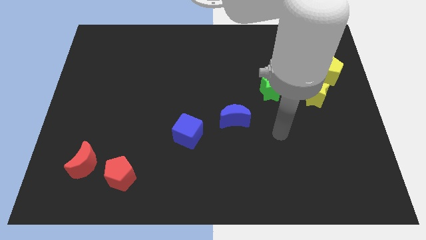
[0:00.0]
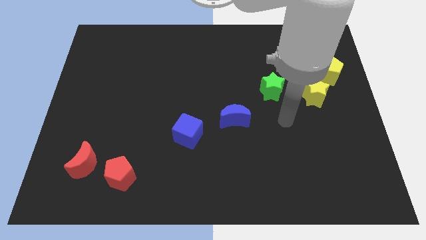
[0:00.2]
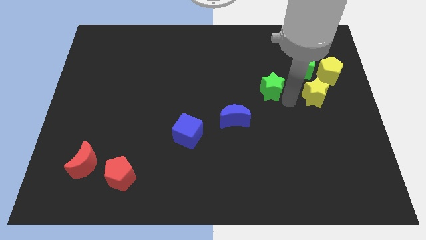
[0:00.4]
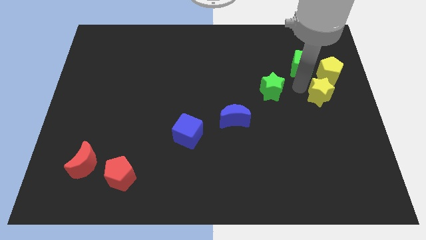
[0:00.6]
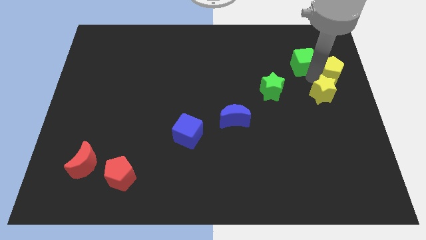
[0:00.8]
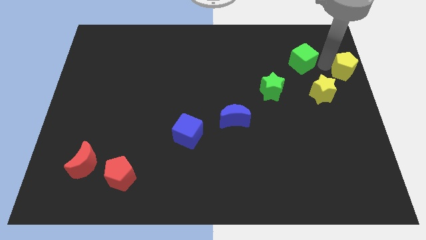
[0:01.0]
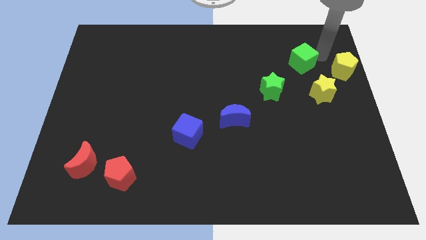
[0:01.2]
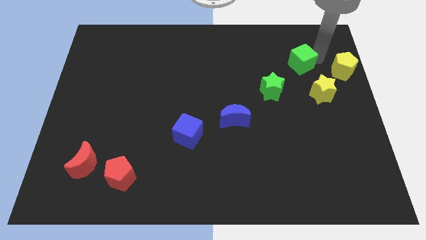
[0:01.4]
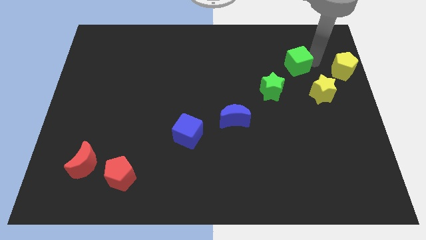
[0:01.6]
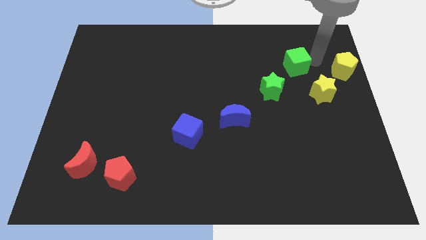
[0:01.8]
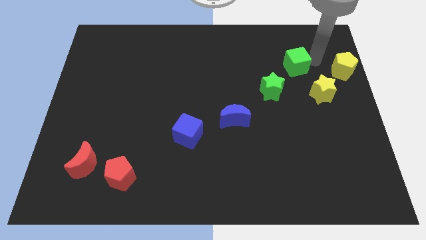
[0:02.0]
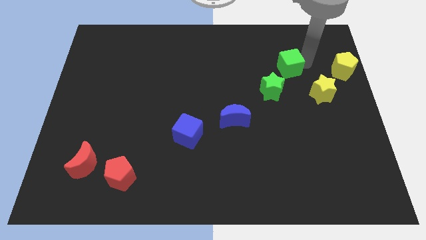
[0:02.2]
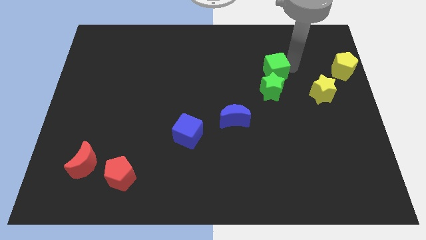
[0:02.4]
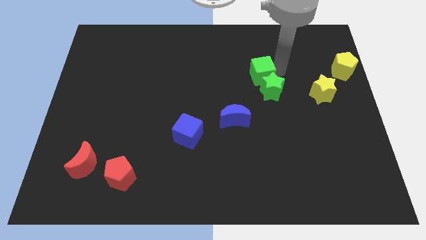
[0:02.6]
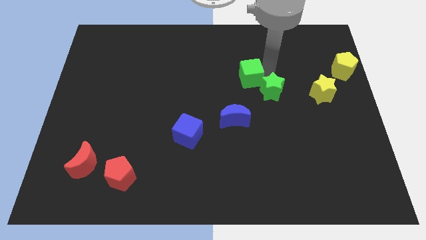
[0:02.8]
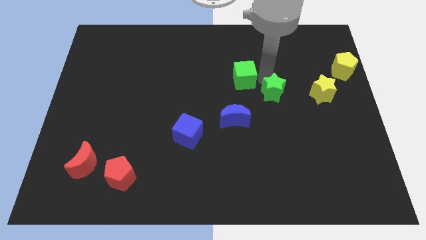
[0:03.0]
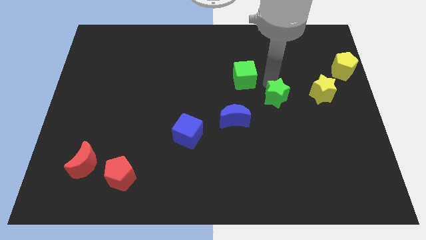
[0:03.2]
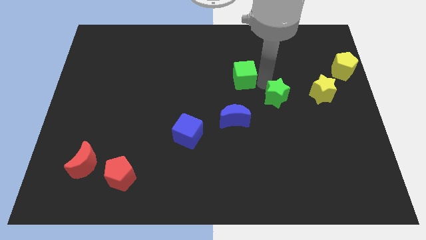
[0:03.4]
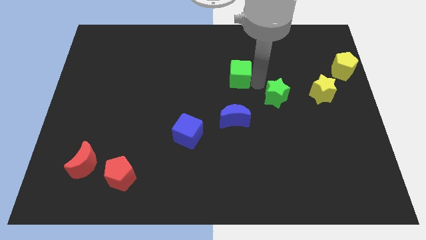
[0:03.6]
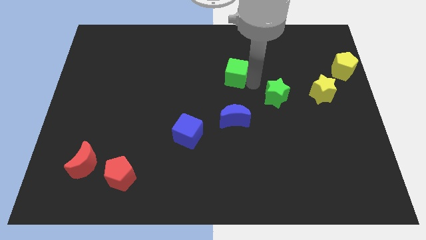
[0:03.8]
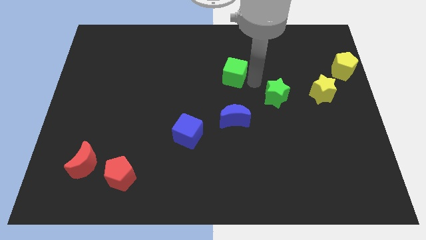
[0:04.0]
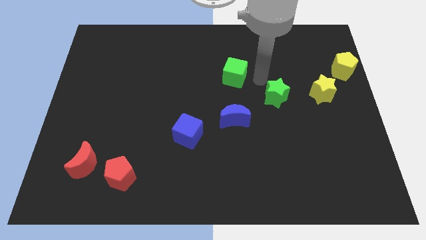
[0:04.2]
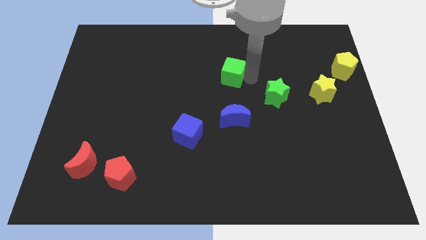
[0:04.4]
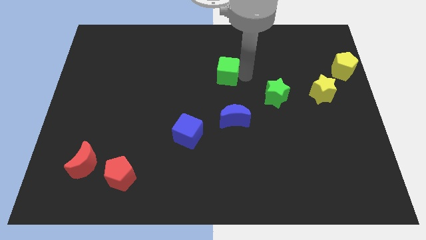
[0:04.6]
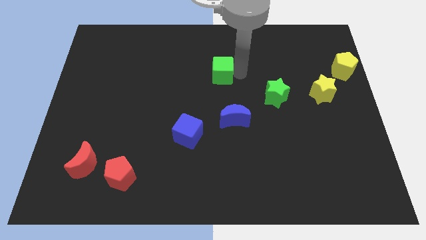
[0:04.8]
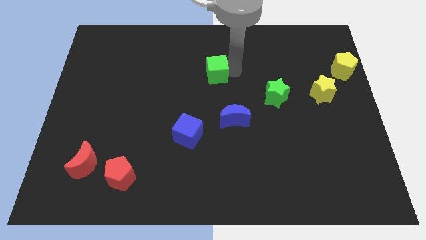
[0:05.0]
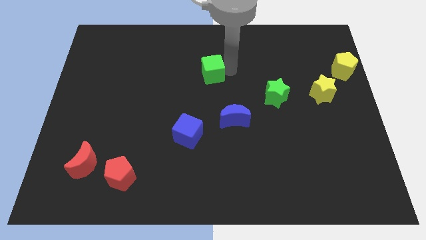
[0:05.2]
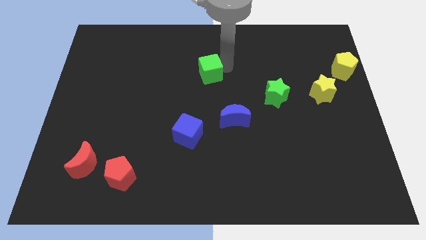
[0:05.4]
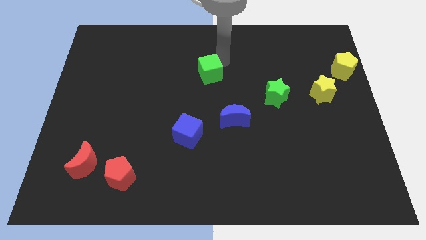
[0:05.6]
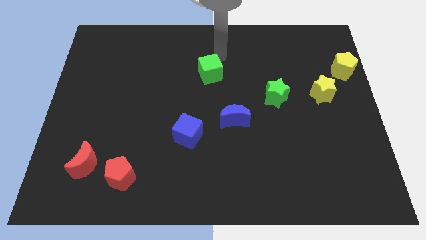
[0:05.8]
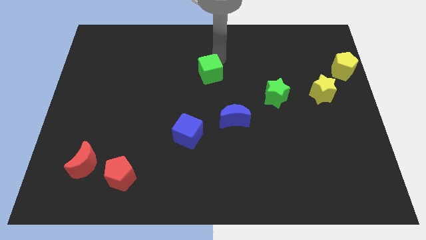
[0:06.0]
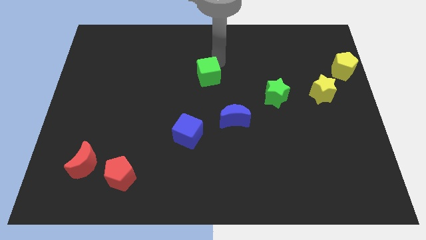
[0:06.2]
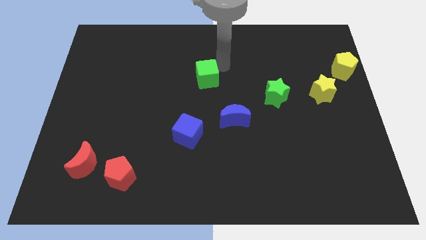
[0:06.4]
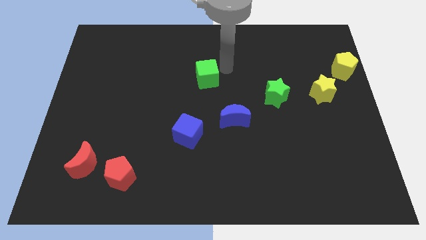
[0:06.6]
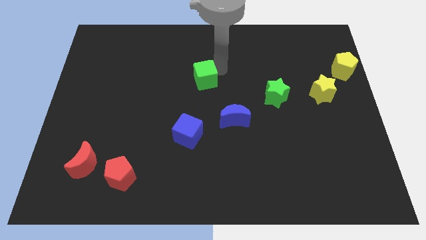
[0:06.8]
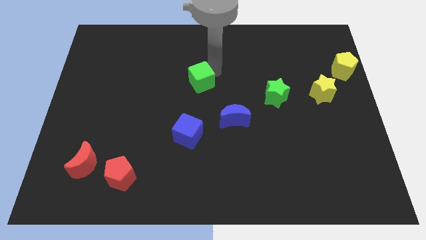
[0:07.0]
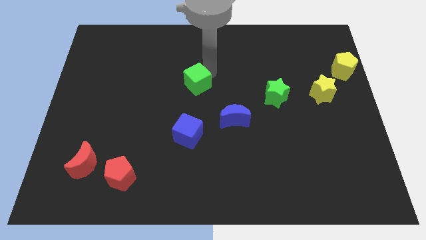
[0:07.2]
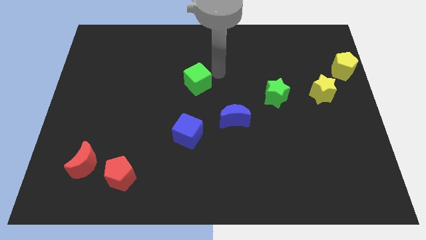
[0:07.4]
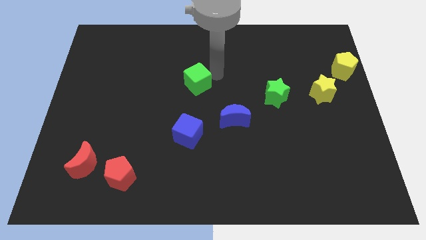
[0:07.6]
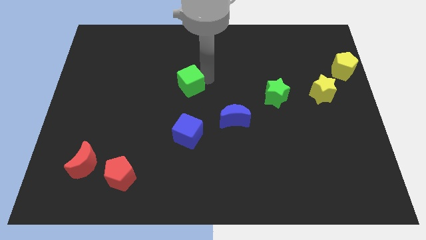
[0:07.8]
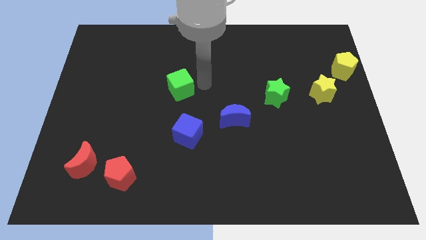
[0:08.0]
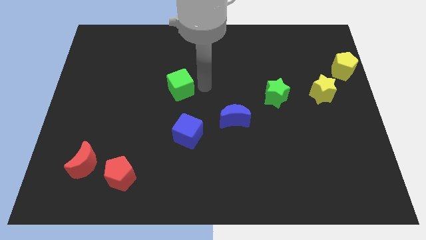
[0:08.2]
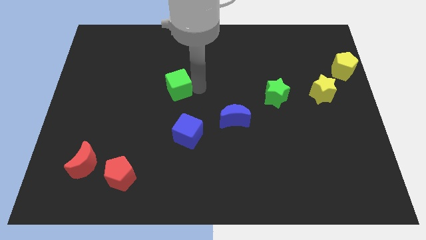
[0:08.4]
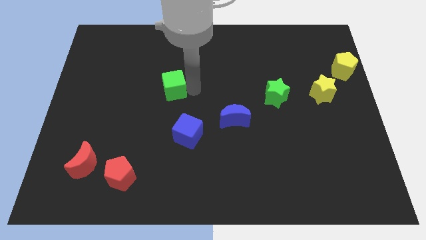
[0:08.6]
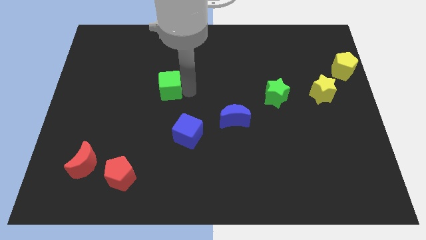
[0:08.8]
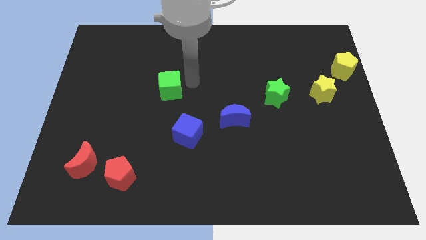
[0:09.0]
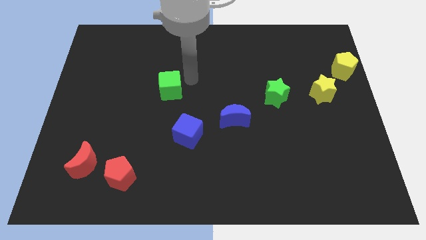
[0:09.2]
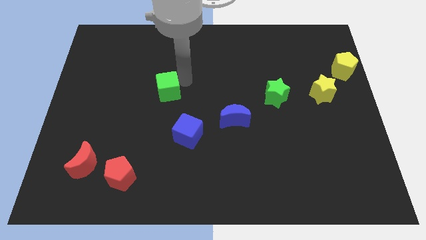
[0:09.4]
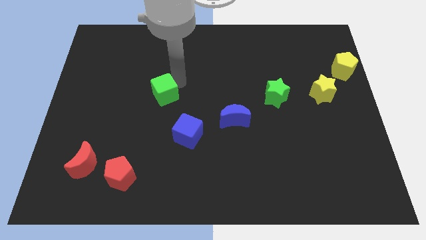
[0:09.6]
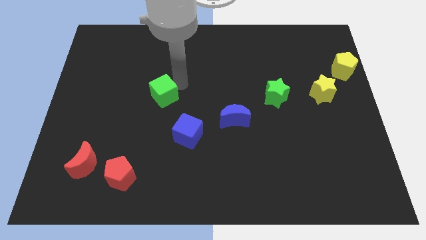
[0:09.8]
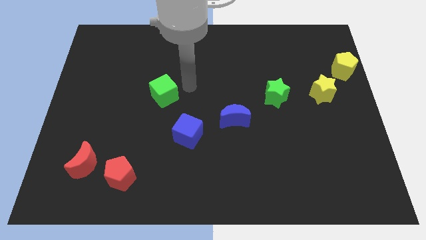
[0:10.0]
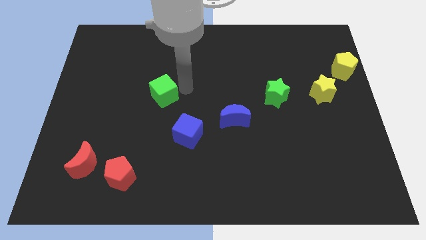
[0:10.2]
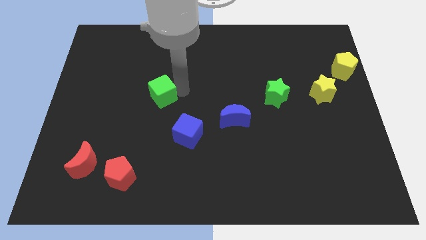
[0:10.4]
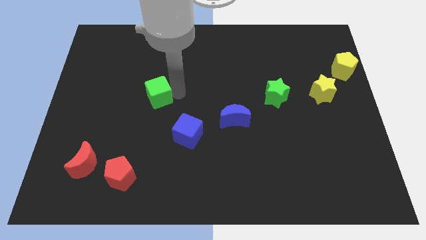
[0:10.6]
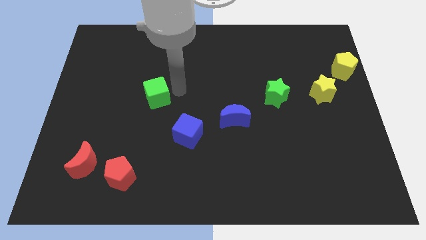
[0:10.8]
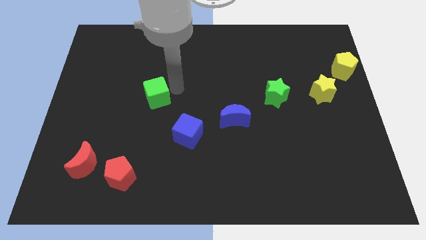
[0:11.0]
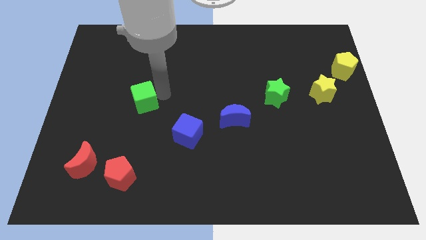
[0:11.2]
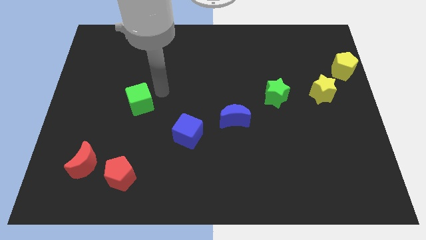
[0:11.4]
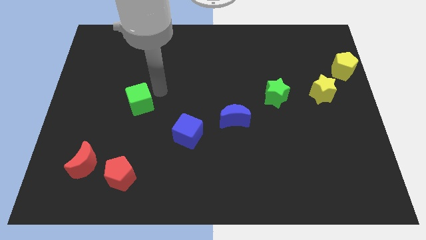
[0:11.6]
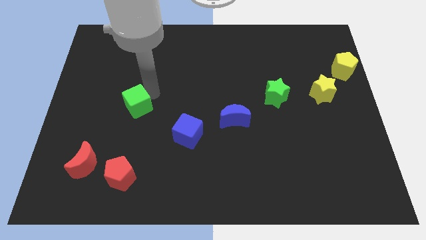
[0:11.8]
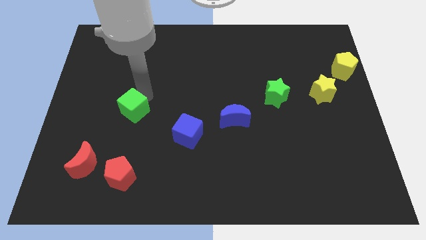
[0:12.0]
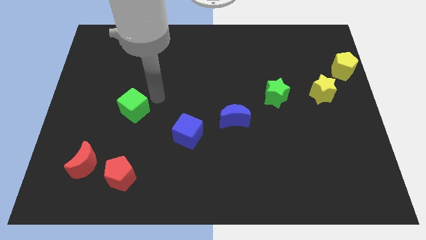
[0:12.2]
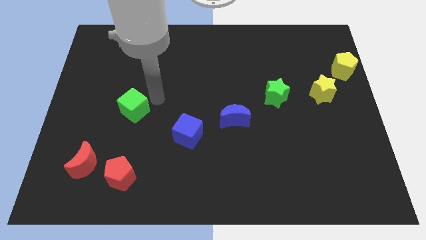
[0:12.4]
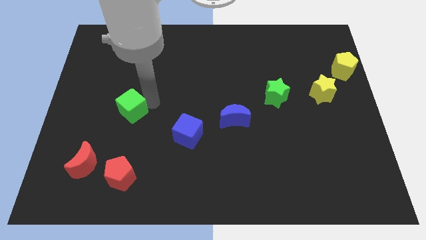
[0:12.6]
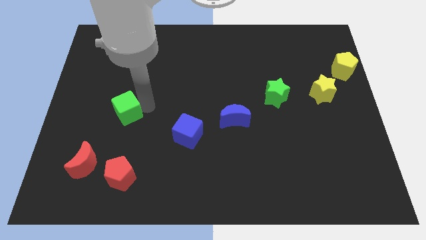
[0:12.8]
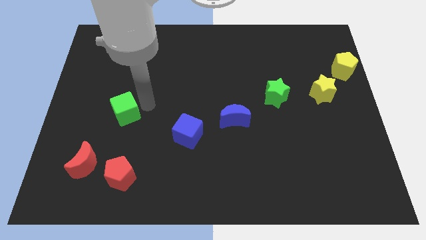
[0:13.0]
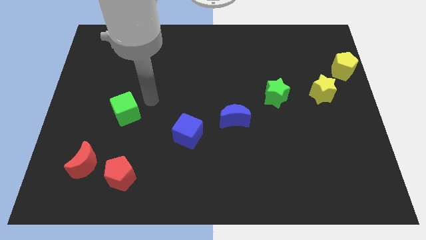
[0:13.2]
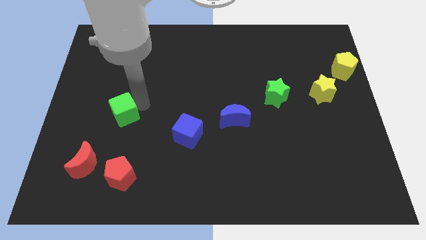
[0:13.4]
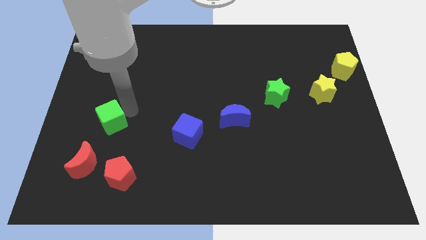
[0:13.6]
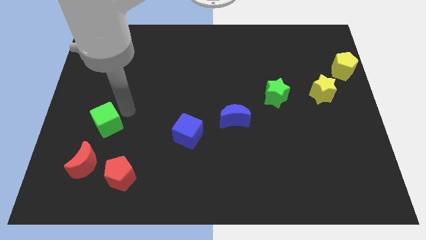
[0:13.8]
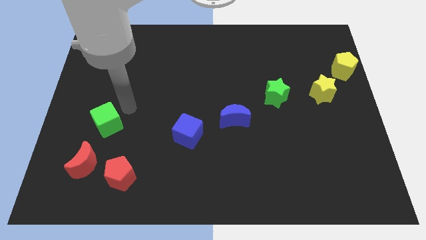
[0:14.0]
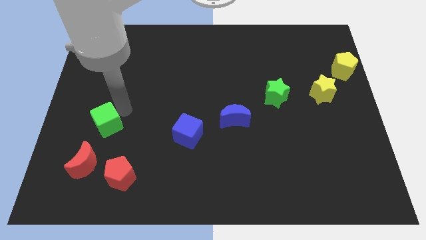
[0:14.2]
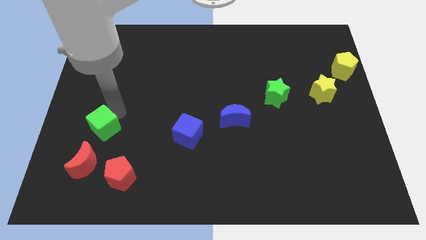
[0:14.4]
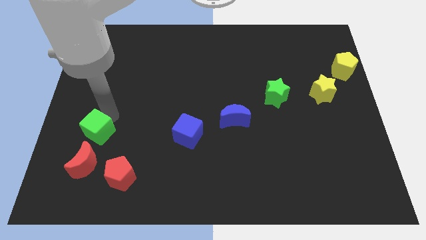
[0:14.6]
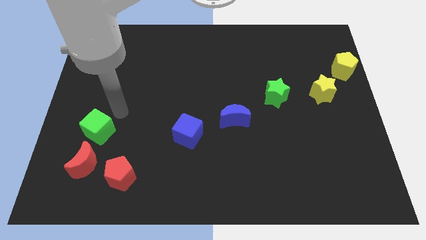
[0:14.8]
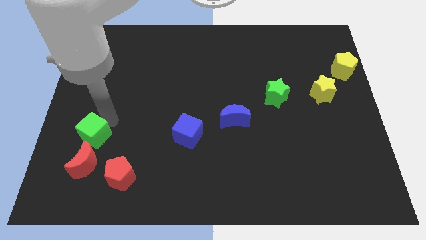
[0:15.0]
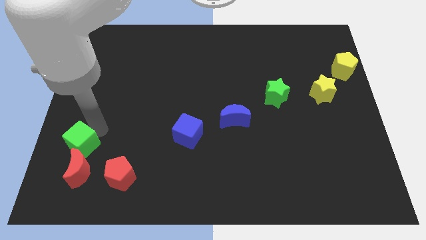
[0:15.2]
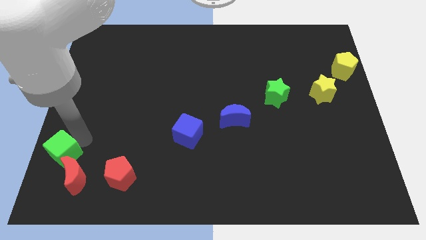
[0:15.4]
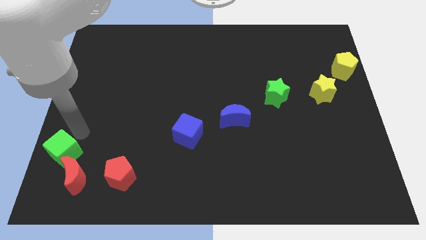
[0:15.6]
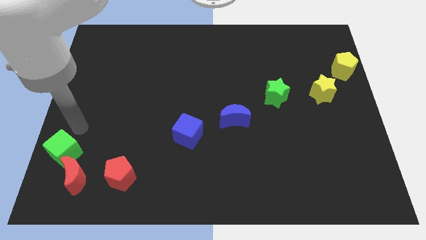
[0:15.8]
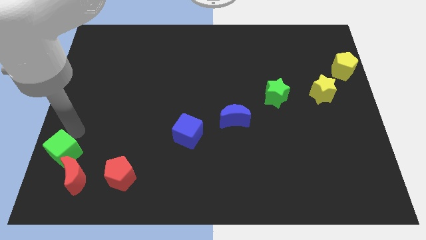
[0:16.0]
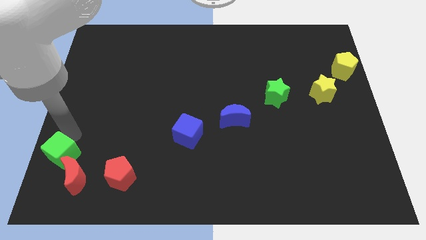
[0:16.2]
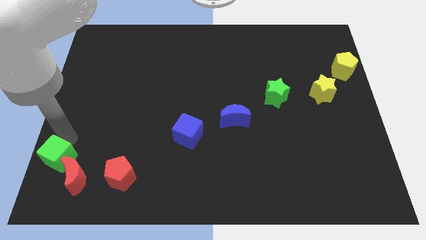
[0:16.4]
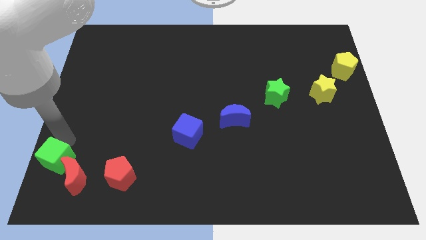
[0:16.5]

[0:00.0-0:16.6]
push the green cube to the lower left corner
